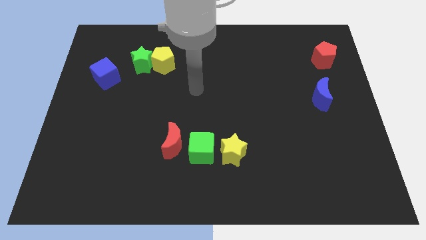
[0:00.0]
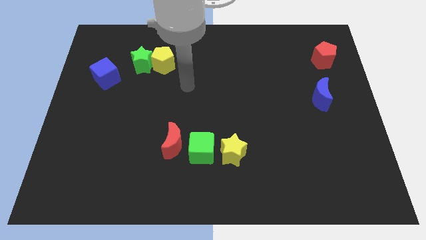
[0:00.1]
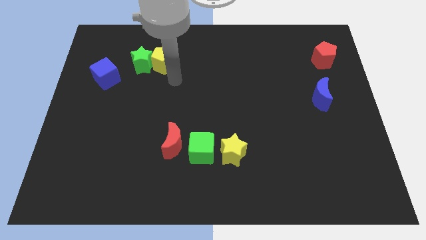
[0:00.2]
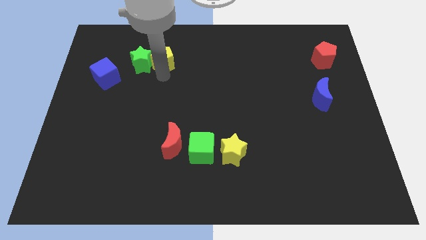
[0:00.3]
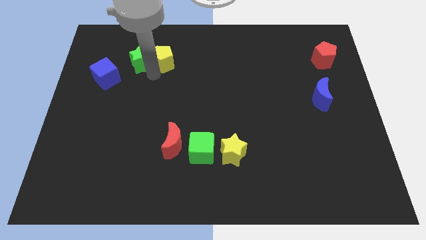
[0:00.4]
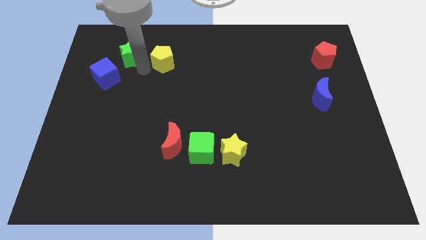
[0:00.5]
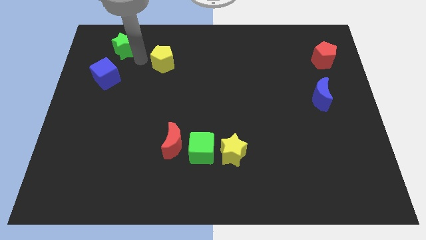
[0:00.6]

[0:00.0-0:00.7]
pull the yellow pentagon apart from the green star

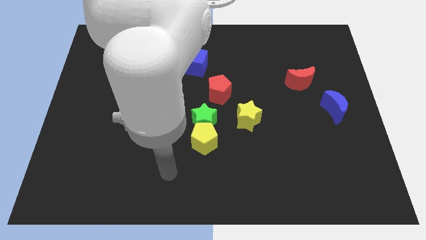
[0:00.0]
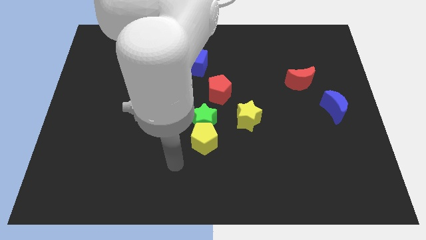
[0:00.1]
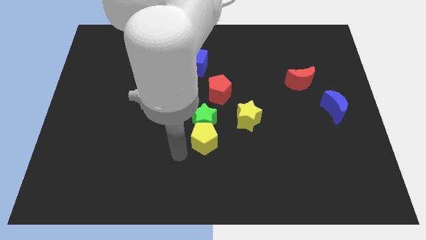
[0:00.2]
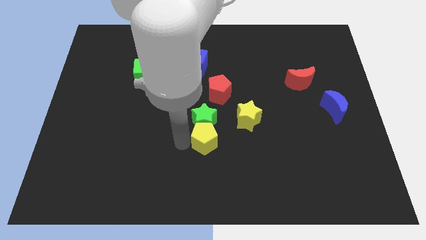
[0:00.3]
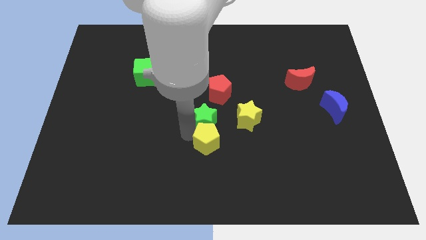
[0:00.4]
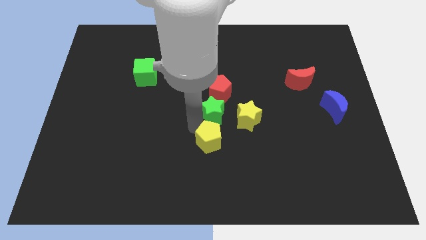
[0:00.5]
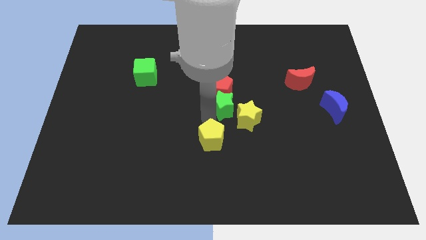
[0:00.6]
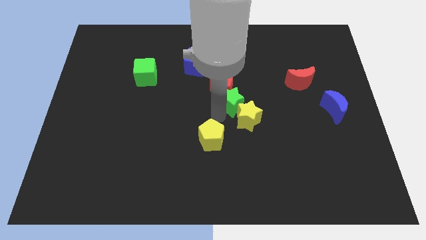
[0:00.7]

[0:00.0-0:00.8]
move the yellow pentagon away from the green star

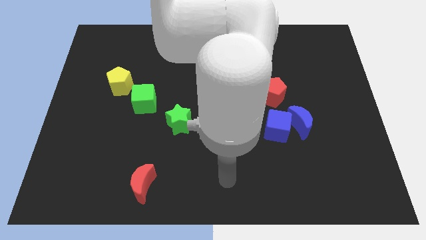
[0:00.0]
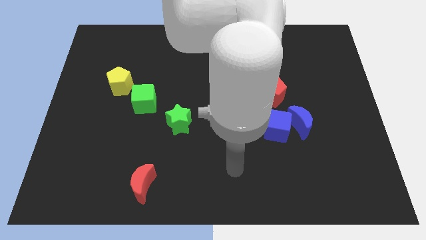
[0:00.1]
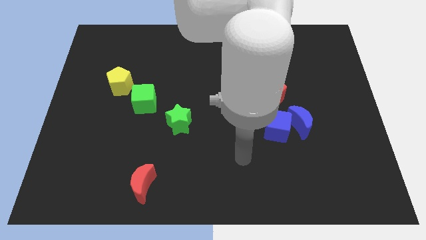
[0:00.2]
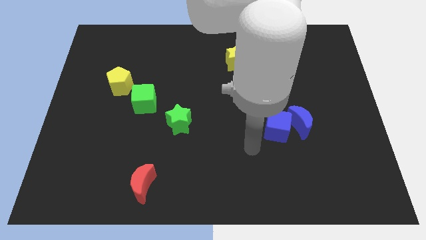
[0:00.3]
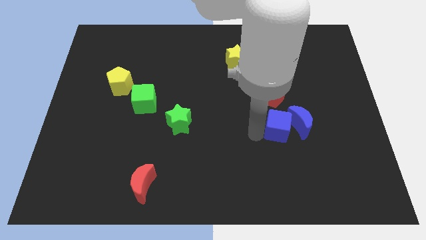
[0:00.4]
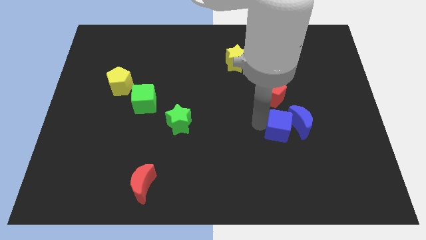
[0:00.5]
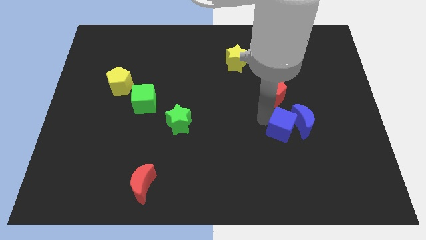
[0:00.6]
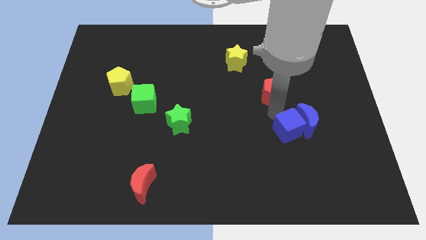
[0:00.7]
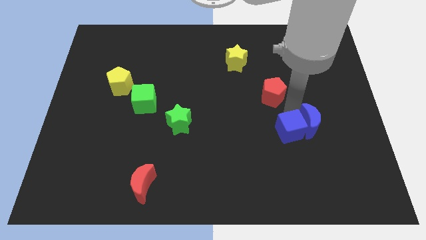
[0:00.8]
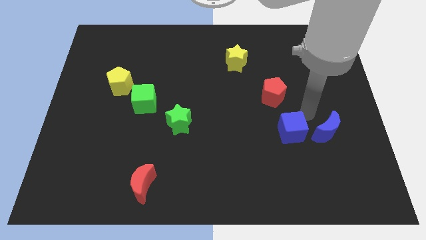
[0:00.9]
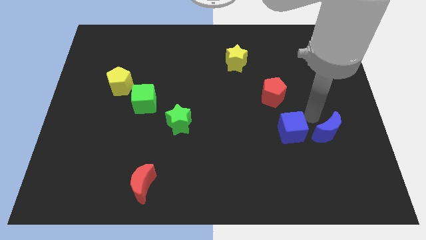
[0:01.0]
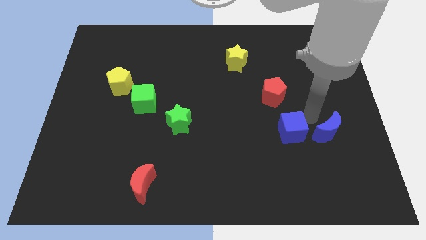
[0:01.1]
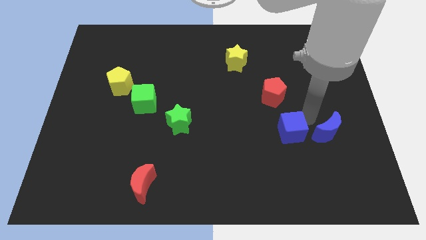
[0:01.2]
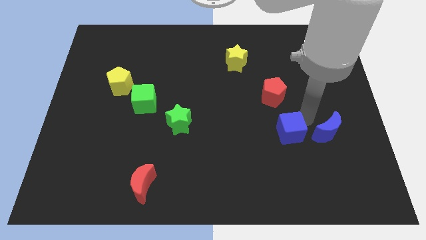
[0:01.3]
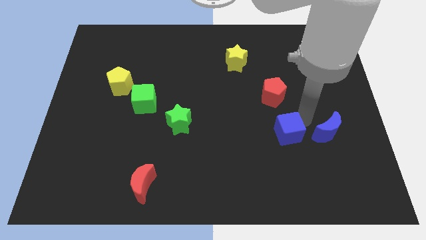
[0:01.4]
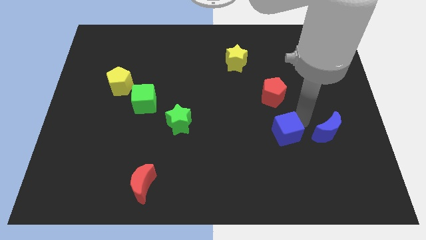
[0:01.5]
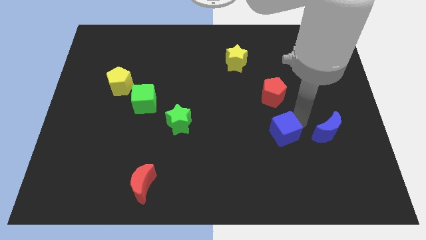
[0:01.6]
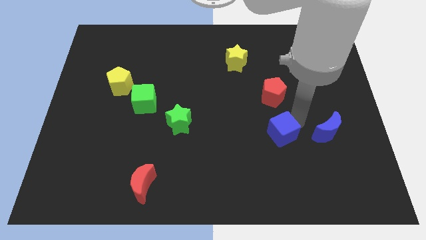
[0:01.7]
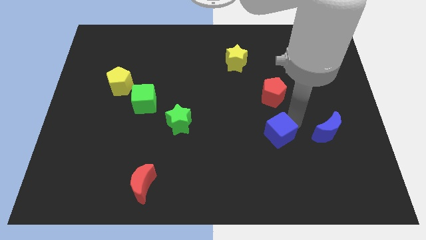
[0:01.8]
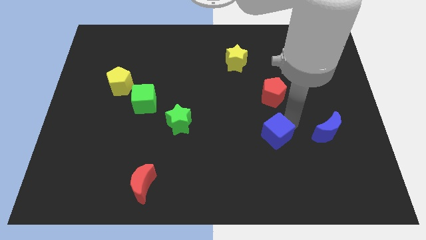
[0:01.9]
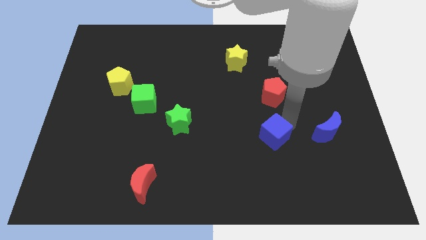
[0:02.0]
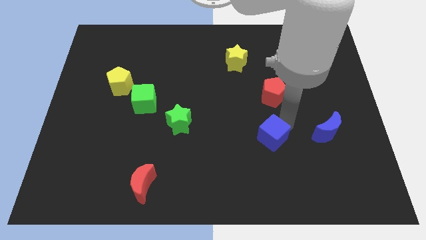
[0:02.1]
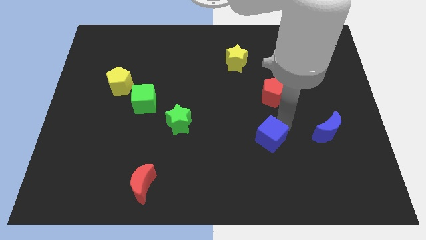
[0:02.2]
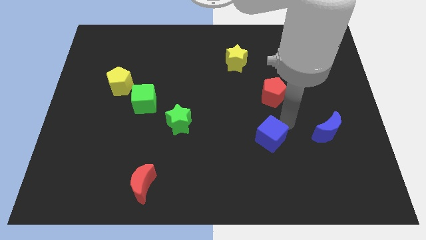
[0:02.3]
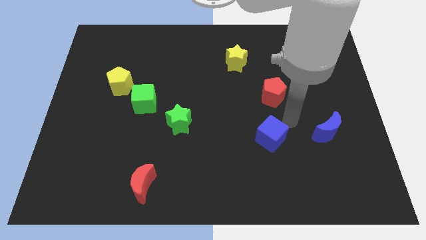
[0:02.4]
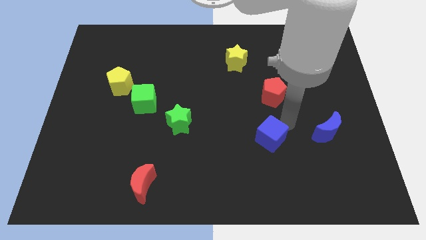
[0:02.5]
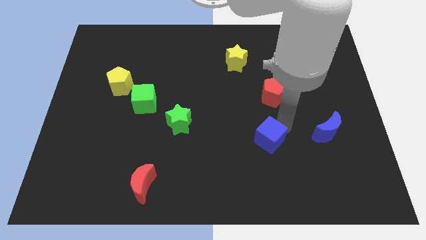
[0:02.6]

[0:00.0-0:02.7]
move the blue cube away from the blue moon and red pentagon

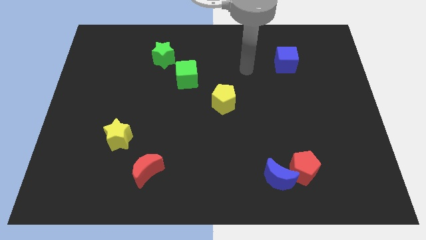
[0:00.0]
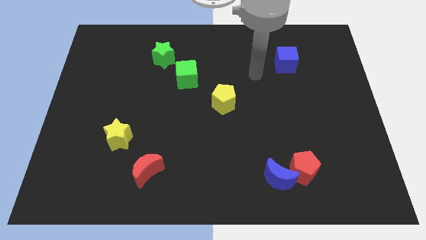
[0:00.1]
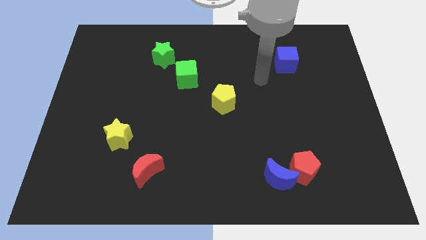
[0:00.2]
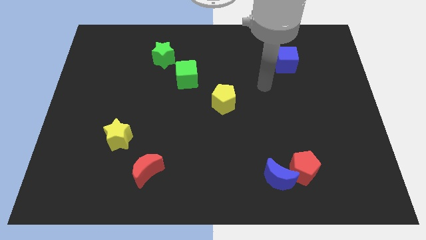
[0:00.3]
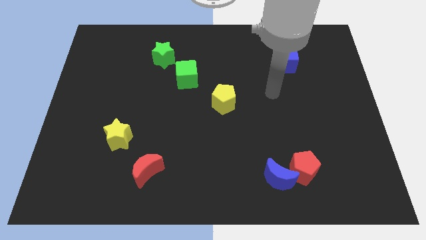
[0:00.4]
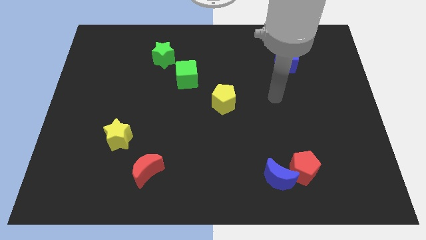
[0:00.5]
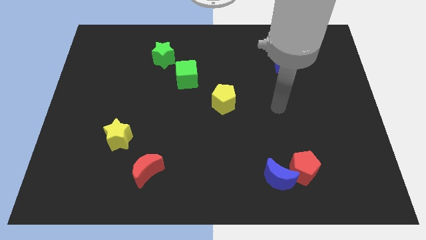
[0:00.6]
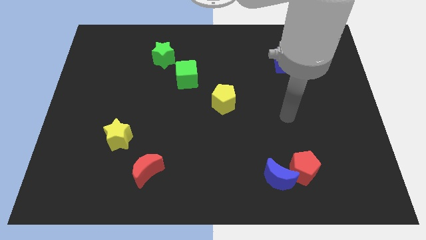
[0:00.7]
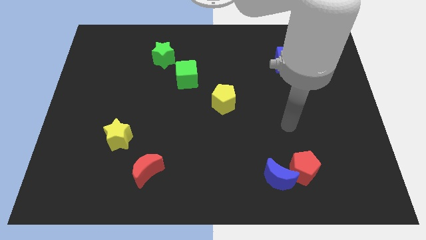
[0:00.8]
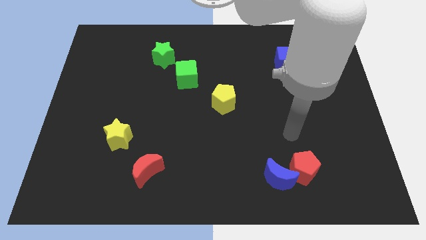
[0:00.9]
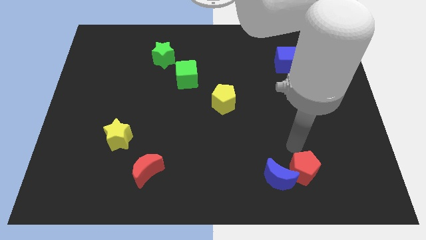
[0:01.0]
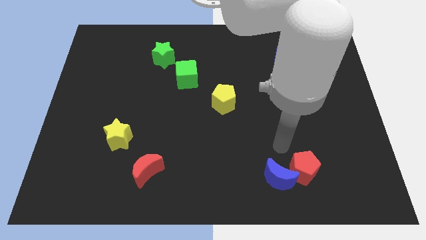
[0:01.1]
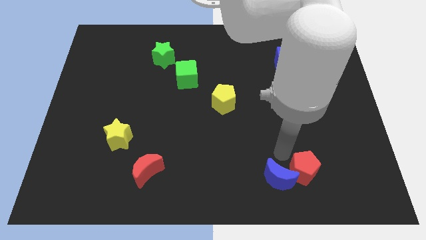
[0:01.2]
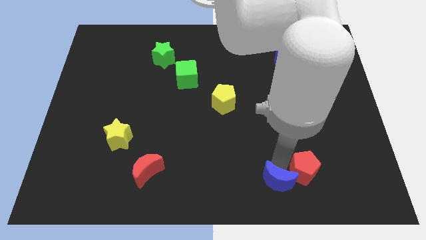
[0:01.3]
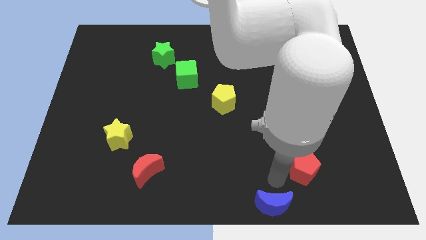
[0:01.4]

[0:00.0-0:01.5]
separate the red pentagon from the blue moon

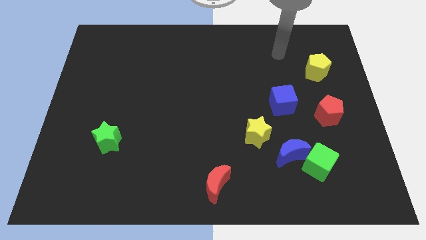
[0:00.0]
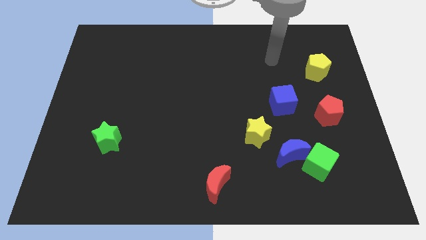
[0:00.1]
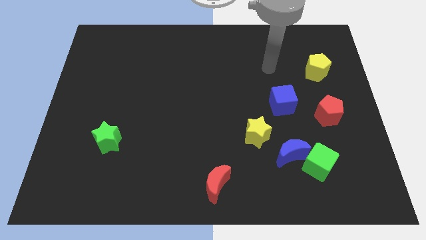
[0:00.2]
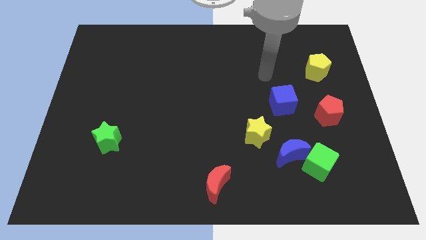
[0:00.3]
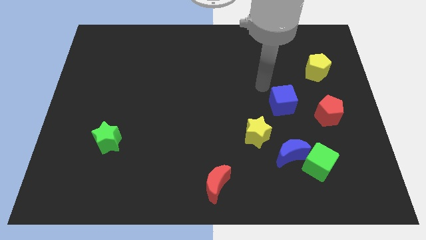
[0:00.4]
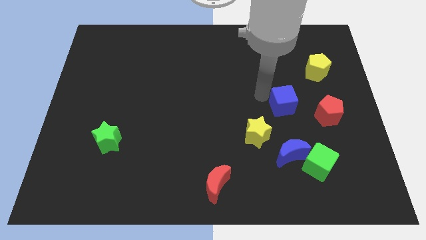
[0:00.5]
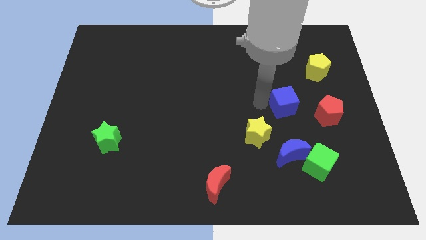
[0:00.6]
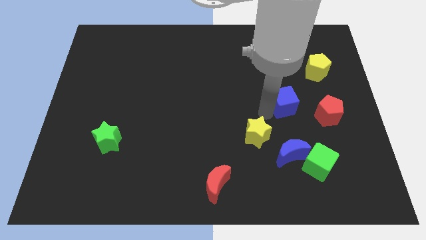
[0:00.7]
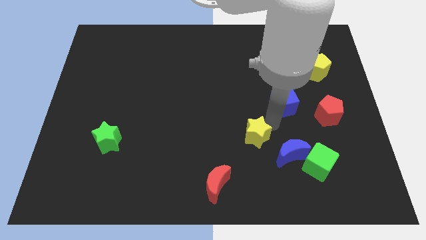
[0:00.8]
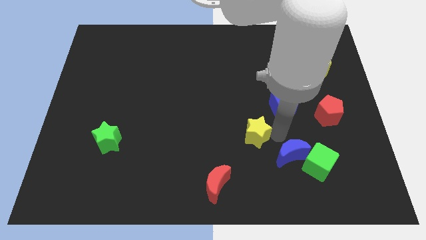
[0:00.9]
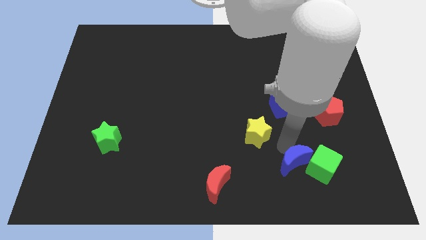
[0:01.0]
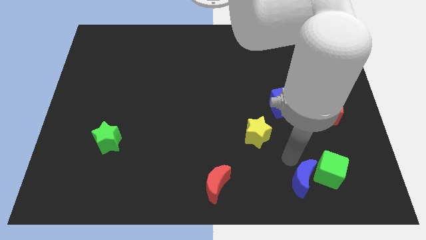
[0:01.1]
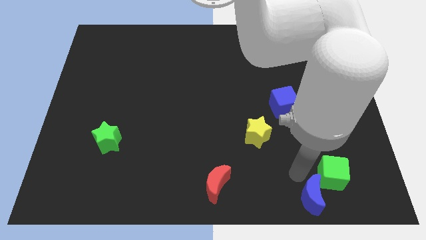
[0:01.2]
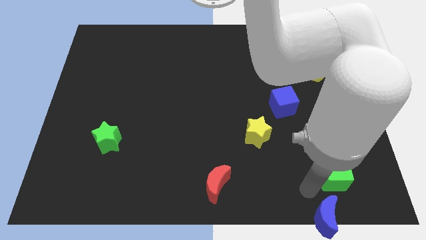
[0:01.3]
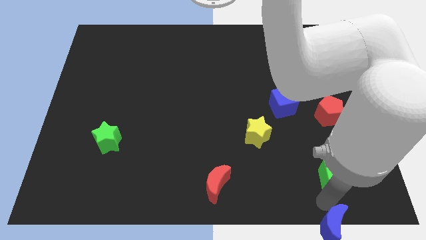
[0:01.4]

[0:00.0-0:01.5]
move the green cube away from the blue moon

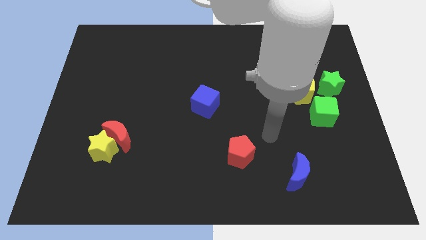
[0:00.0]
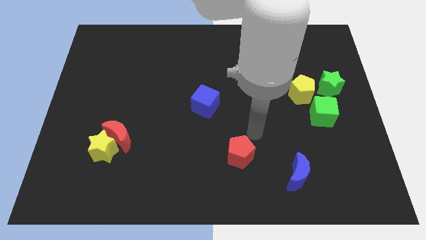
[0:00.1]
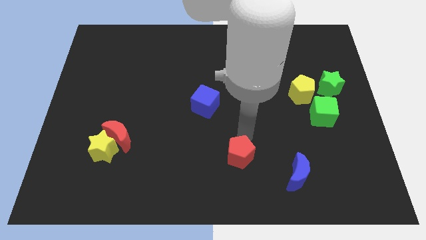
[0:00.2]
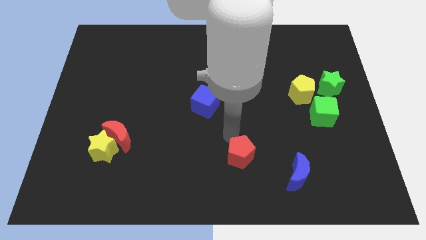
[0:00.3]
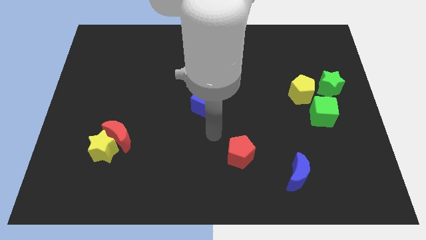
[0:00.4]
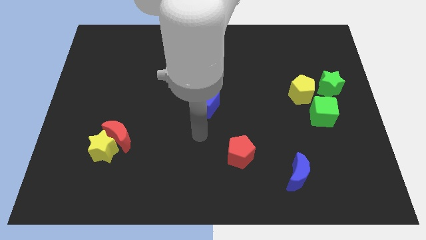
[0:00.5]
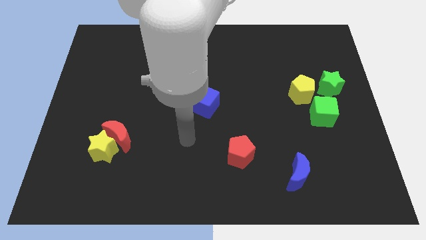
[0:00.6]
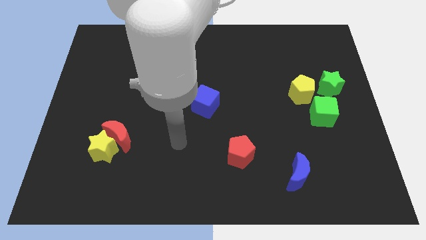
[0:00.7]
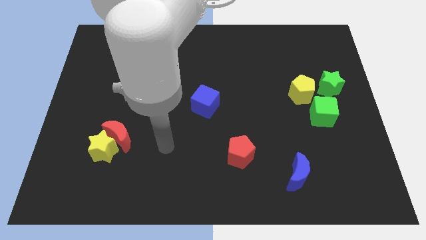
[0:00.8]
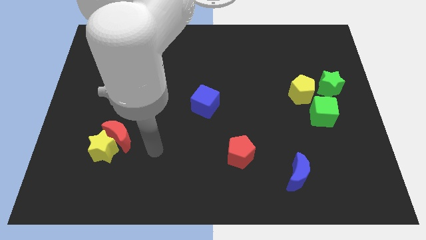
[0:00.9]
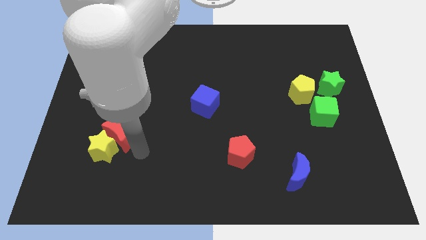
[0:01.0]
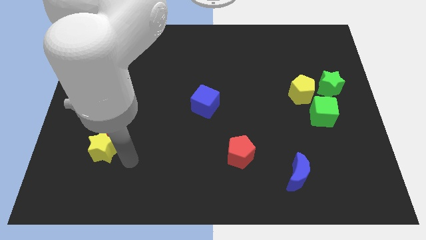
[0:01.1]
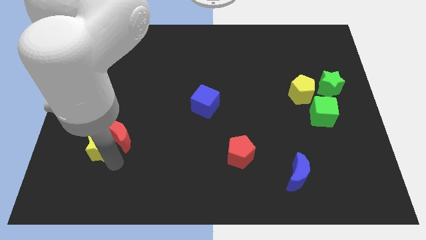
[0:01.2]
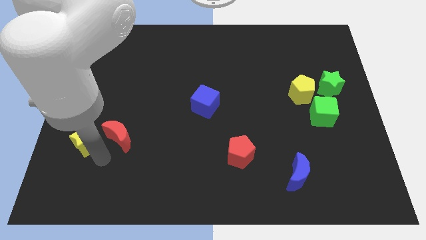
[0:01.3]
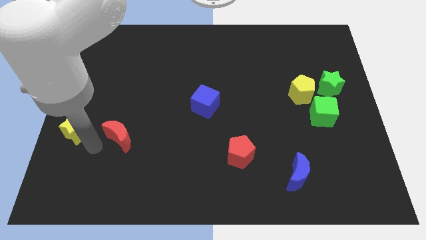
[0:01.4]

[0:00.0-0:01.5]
pull the red moon apart from the yellow star

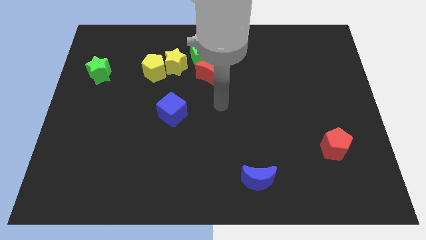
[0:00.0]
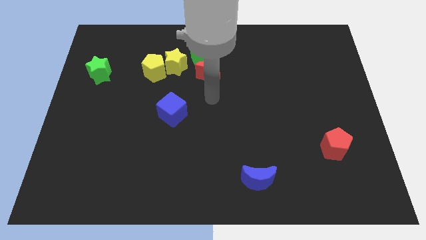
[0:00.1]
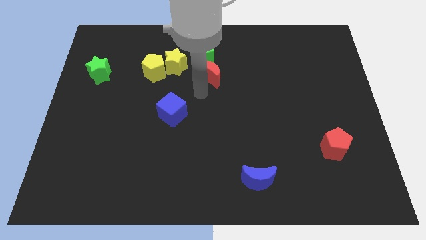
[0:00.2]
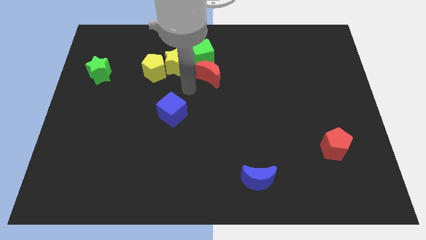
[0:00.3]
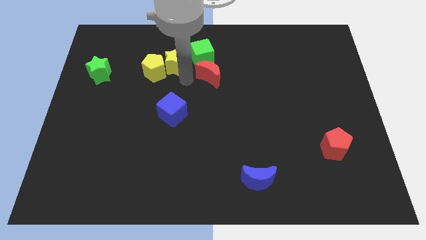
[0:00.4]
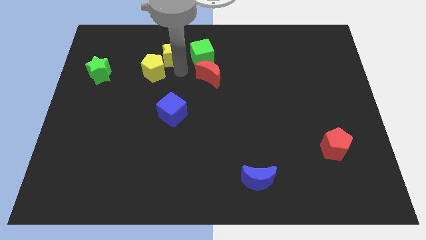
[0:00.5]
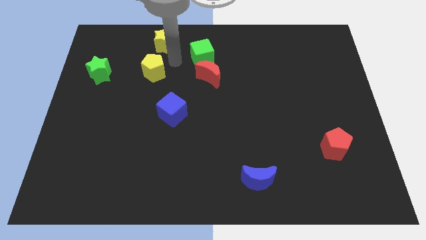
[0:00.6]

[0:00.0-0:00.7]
separate the yellow pentagon from the yellow star
